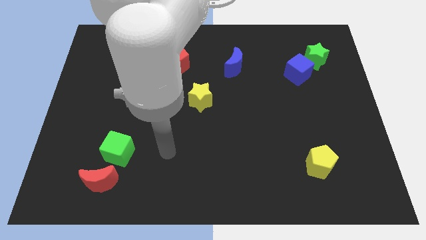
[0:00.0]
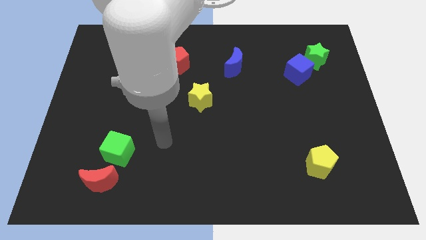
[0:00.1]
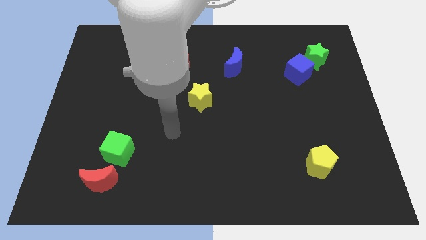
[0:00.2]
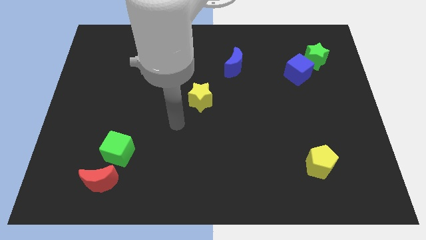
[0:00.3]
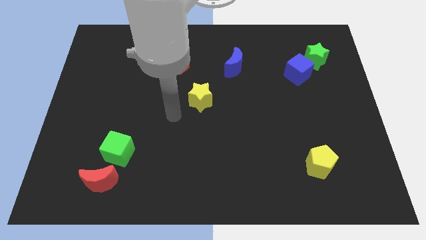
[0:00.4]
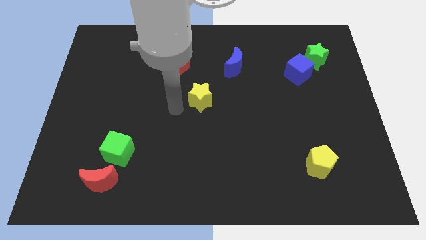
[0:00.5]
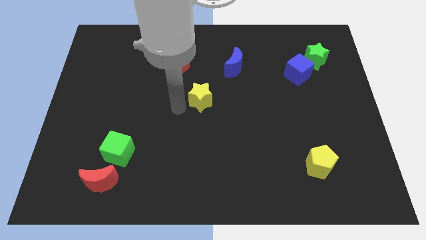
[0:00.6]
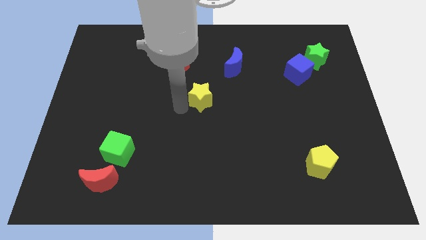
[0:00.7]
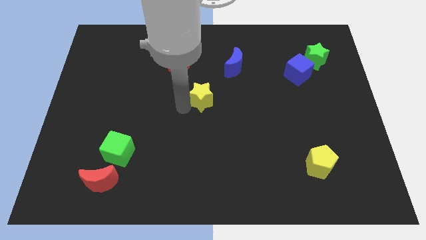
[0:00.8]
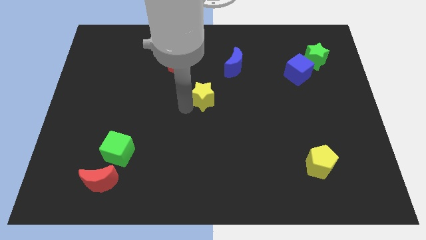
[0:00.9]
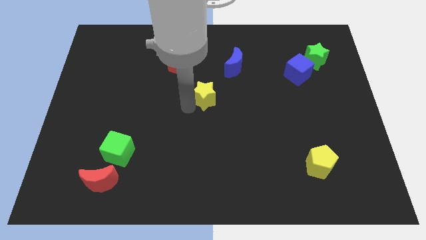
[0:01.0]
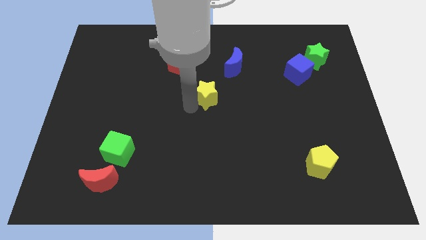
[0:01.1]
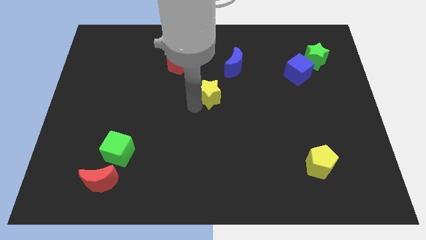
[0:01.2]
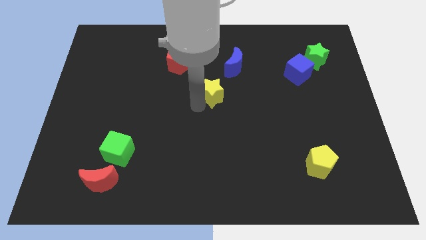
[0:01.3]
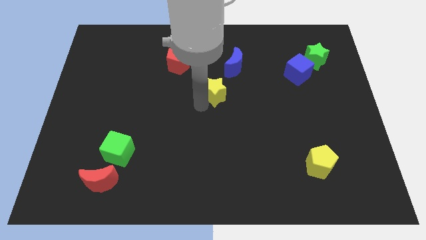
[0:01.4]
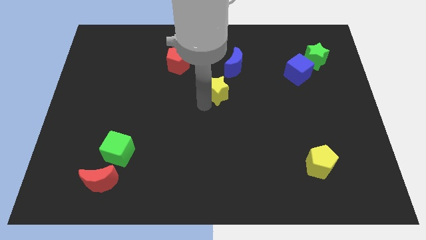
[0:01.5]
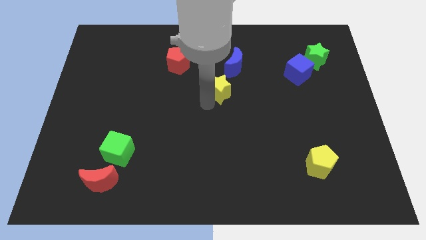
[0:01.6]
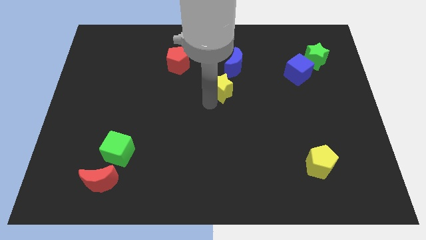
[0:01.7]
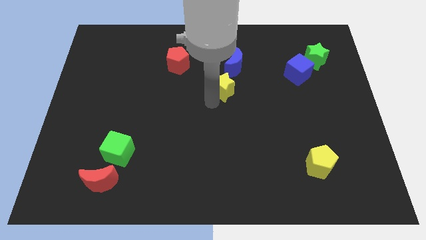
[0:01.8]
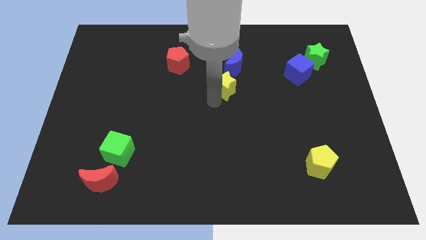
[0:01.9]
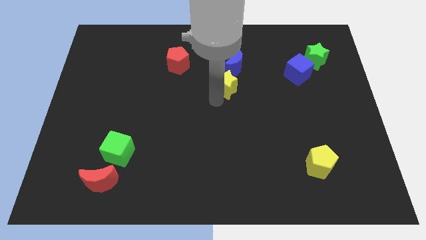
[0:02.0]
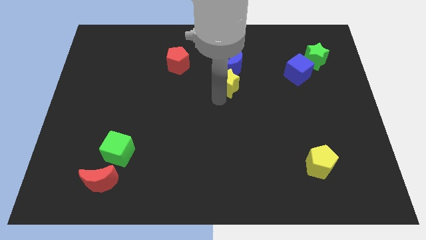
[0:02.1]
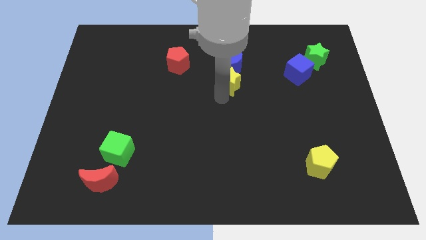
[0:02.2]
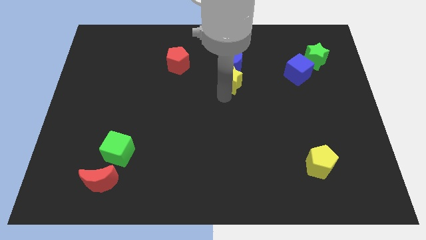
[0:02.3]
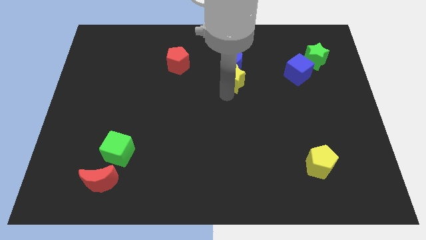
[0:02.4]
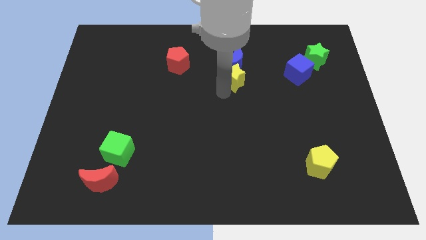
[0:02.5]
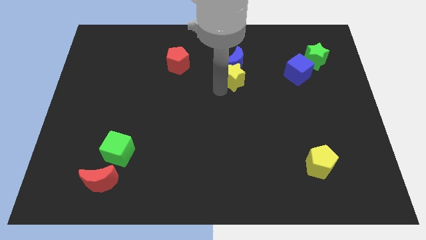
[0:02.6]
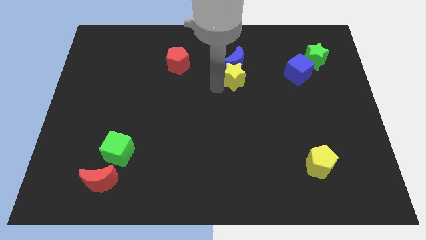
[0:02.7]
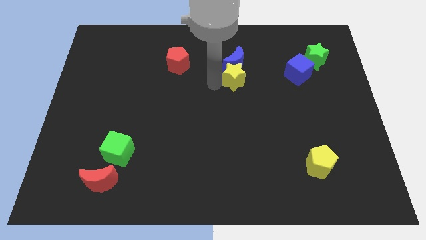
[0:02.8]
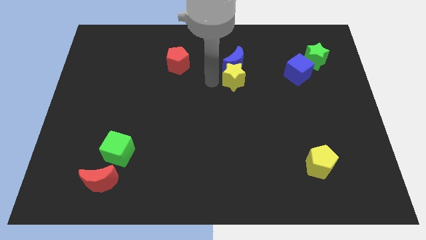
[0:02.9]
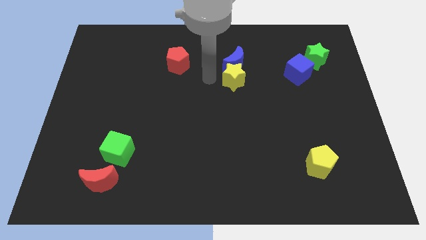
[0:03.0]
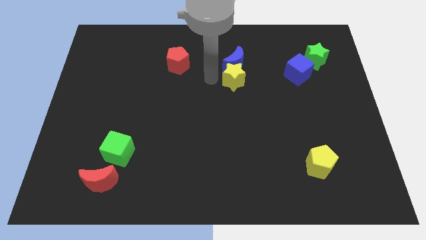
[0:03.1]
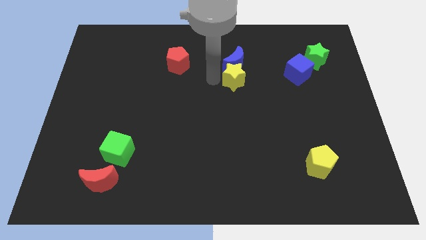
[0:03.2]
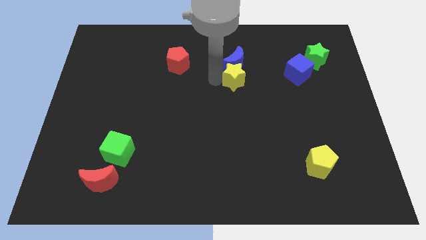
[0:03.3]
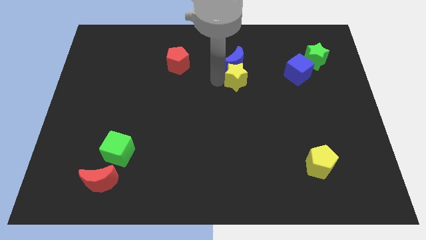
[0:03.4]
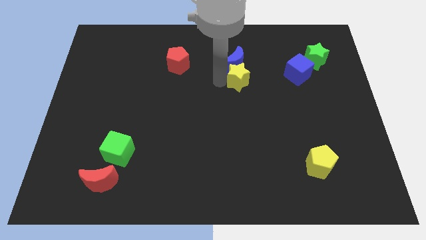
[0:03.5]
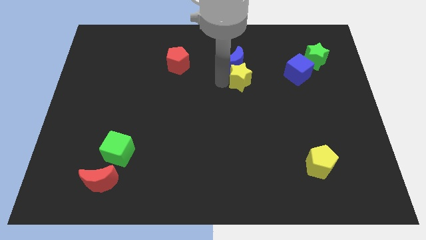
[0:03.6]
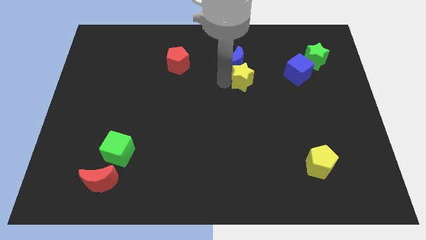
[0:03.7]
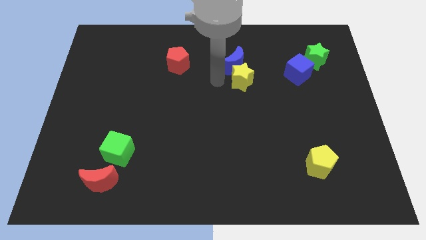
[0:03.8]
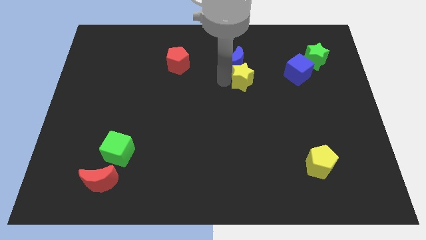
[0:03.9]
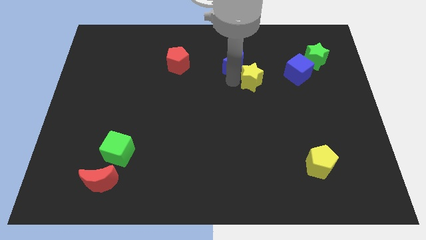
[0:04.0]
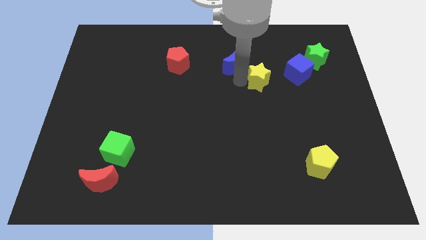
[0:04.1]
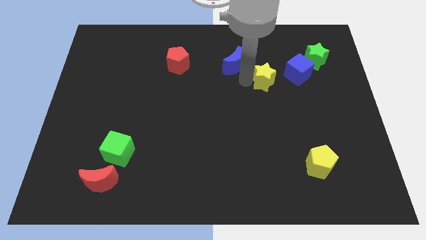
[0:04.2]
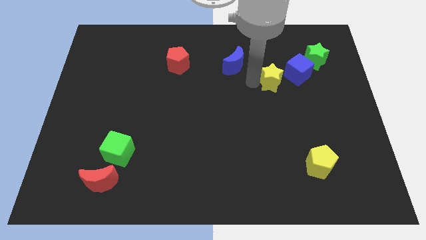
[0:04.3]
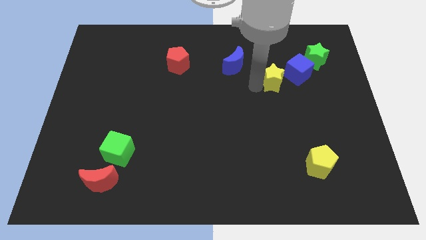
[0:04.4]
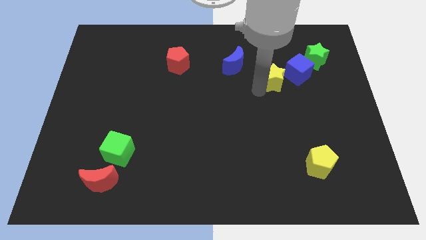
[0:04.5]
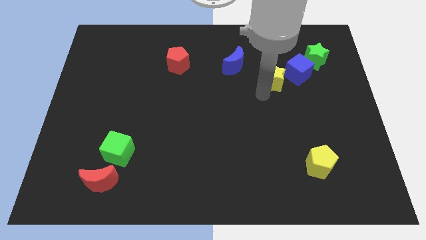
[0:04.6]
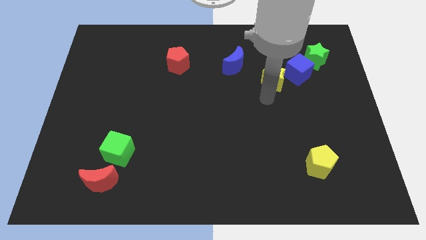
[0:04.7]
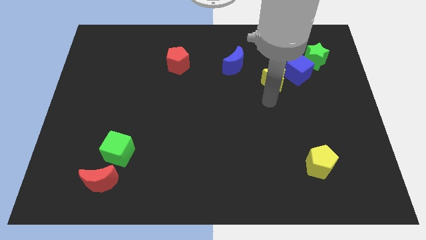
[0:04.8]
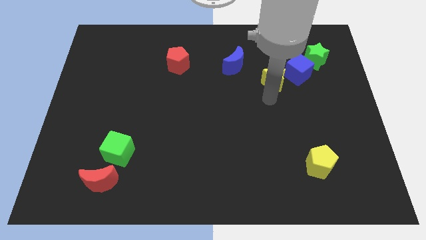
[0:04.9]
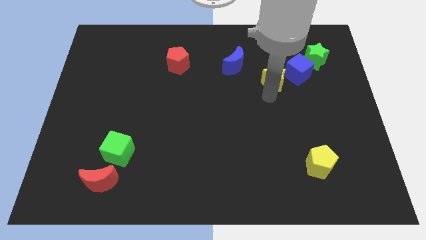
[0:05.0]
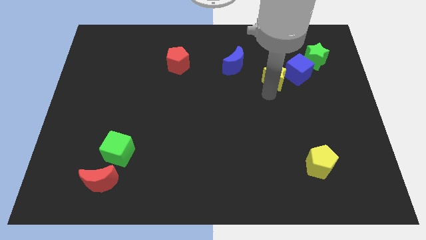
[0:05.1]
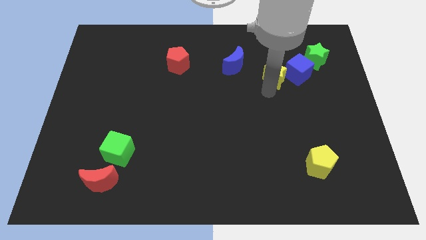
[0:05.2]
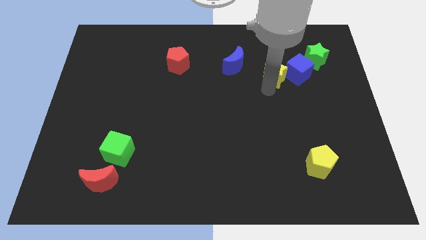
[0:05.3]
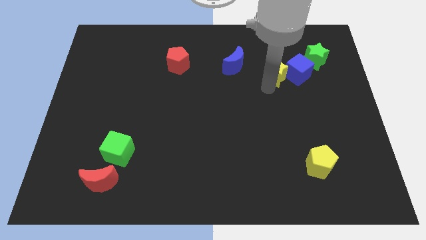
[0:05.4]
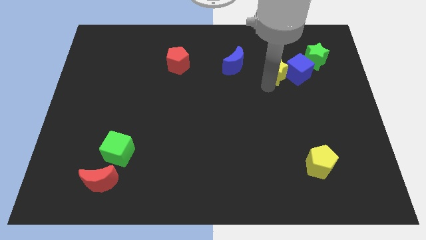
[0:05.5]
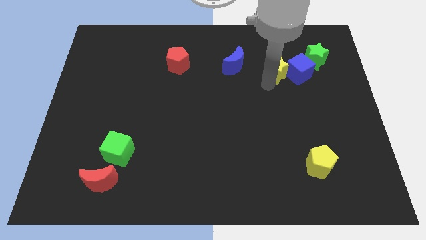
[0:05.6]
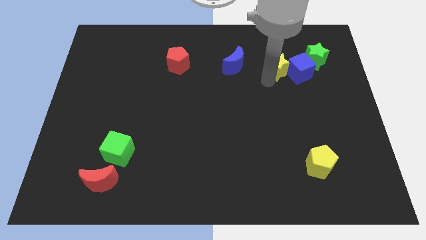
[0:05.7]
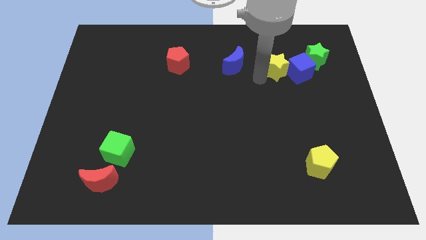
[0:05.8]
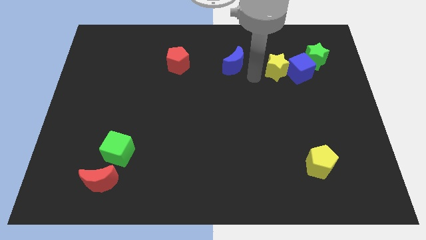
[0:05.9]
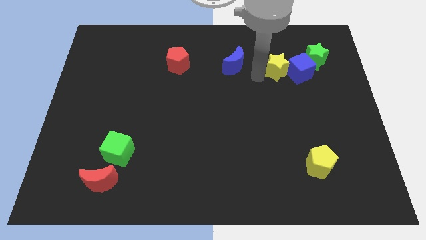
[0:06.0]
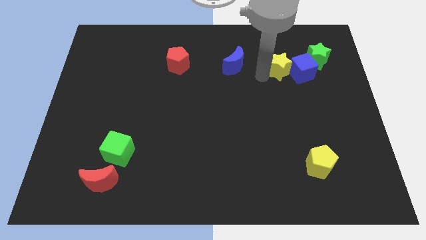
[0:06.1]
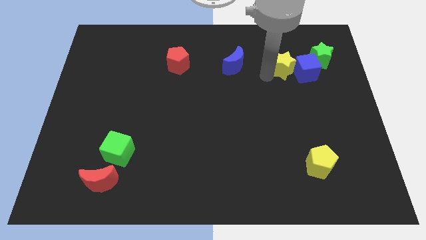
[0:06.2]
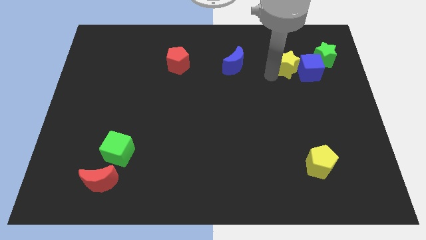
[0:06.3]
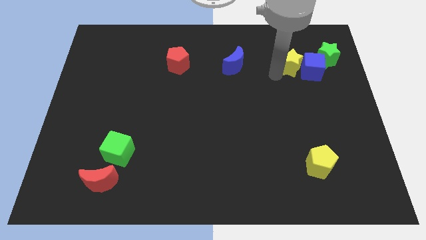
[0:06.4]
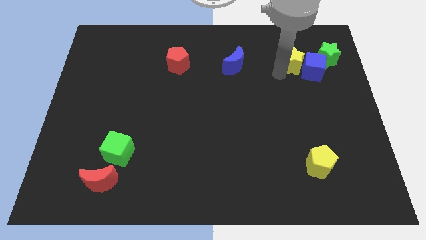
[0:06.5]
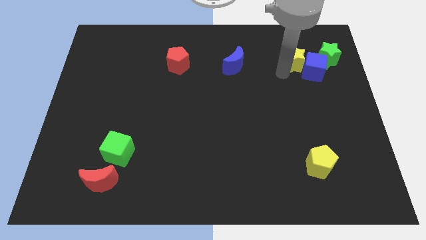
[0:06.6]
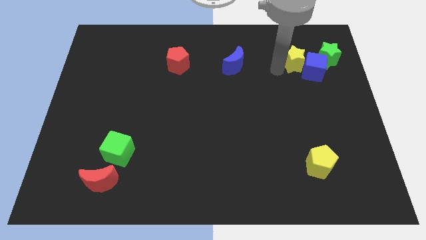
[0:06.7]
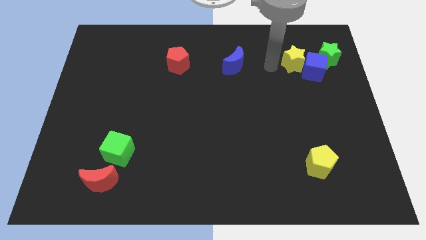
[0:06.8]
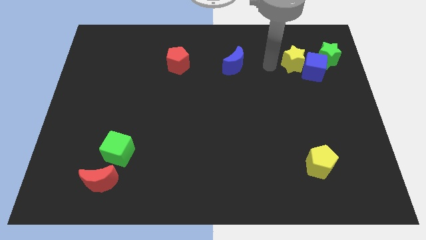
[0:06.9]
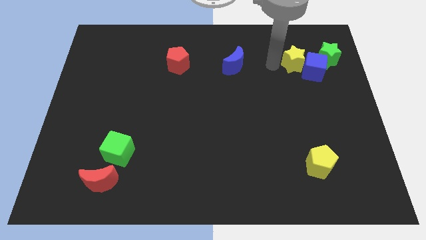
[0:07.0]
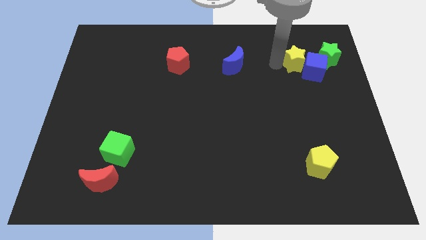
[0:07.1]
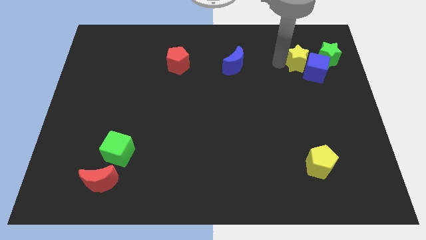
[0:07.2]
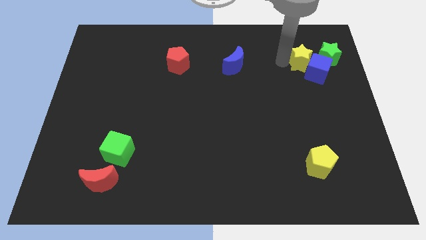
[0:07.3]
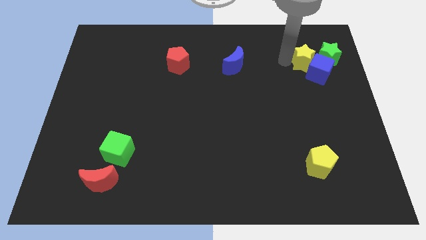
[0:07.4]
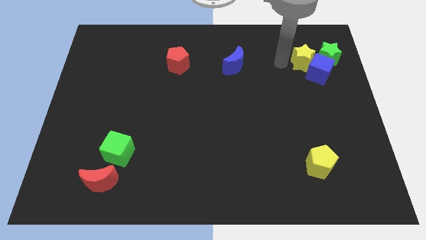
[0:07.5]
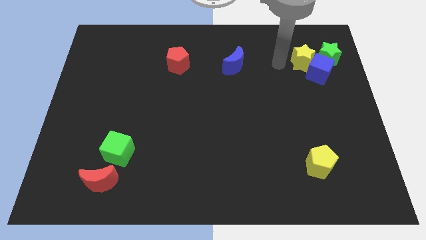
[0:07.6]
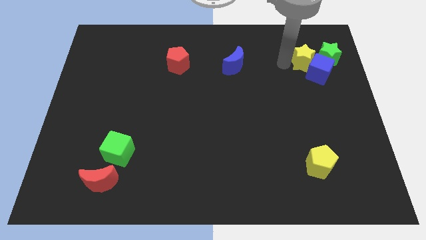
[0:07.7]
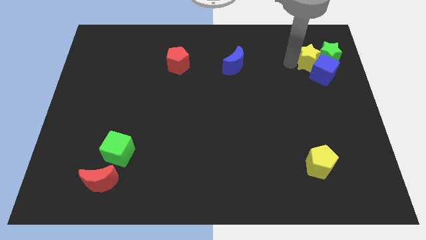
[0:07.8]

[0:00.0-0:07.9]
slide the yellow star next to the green star
